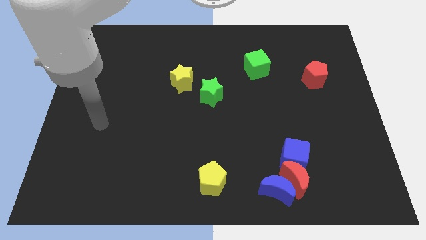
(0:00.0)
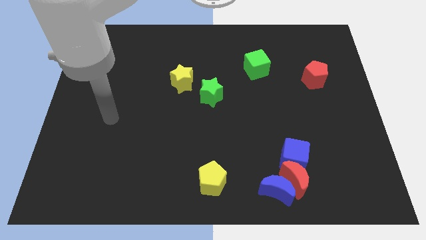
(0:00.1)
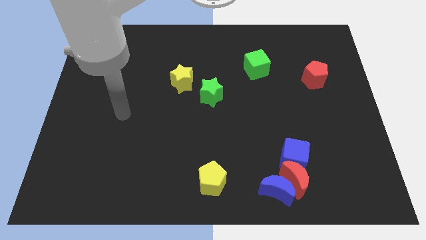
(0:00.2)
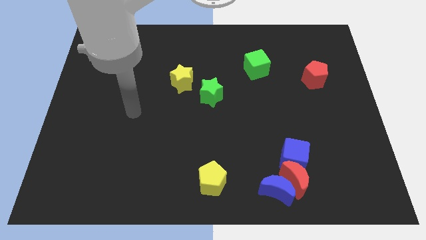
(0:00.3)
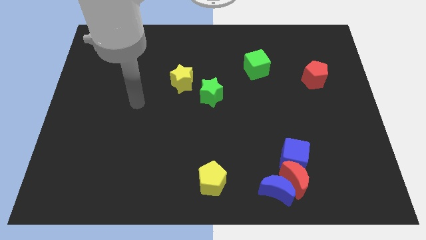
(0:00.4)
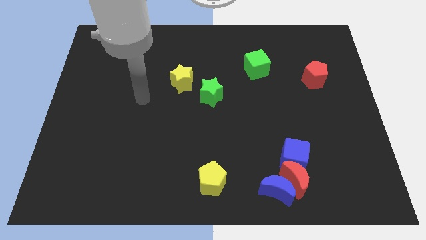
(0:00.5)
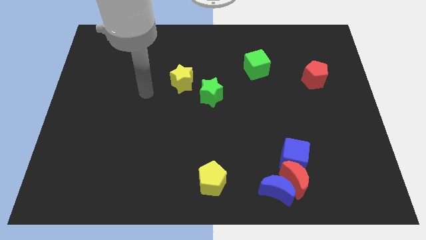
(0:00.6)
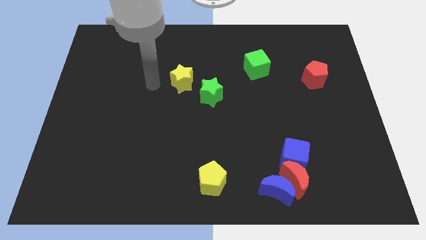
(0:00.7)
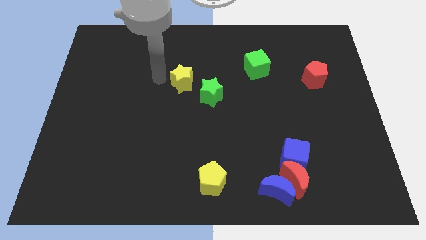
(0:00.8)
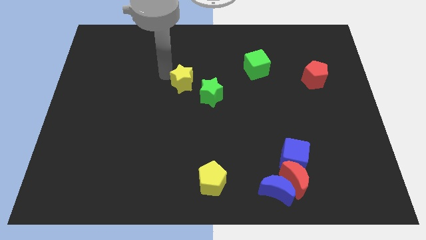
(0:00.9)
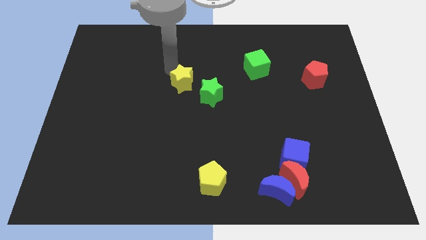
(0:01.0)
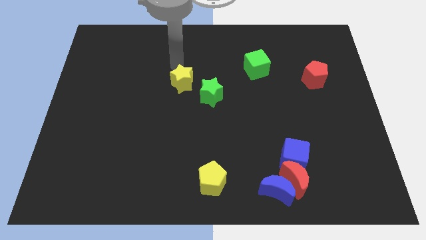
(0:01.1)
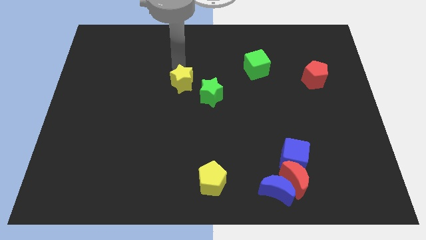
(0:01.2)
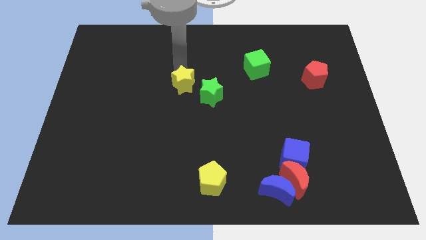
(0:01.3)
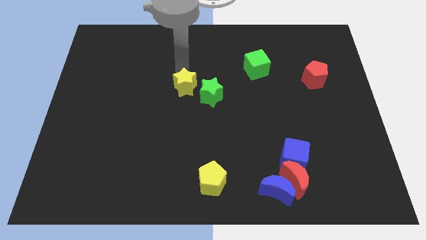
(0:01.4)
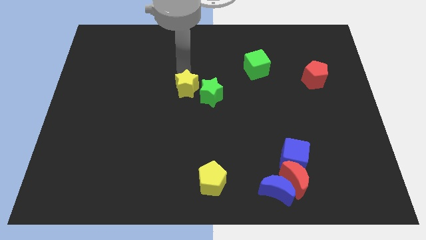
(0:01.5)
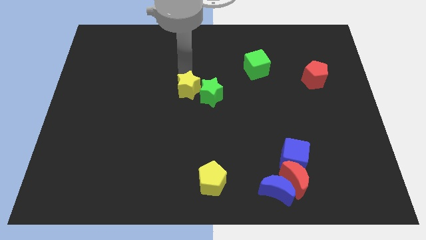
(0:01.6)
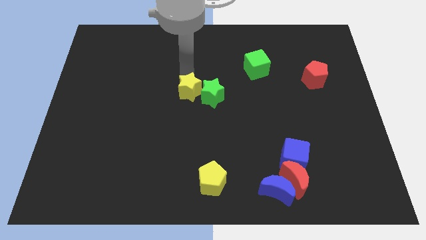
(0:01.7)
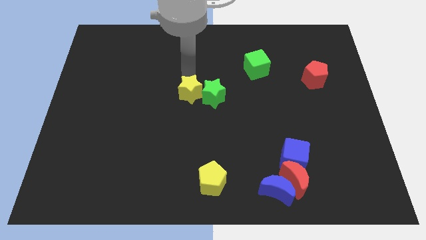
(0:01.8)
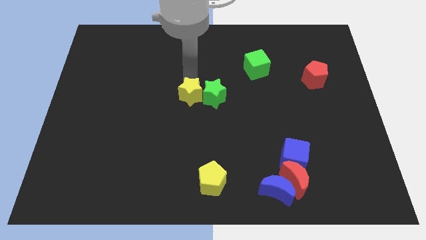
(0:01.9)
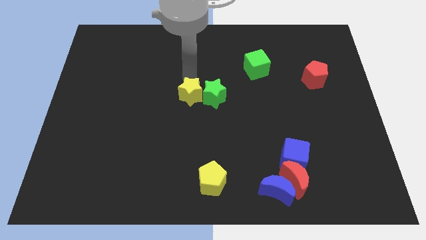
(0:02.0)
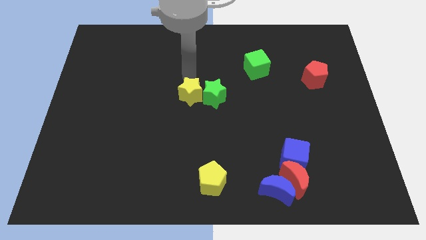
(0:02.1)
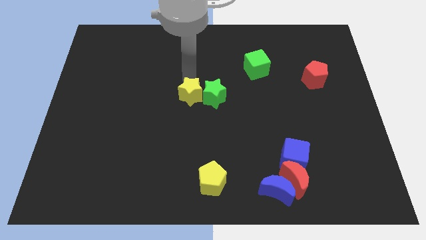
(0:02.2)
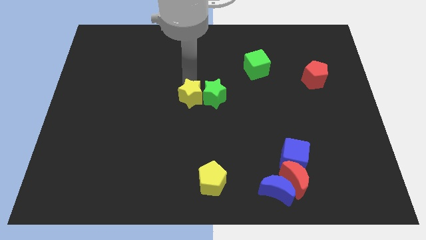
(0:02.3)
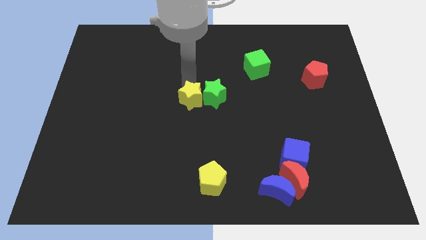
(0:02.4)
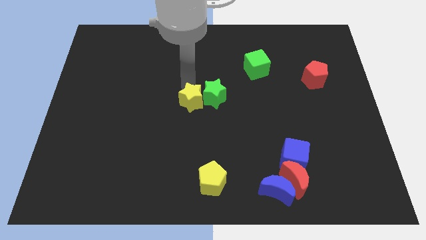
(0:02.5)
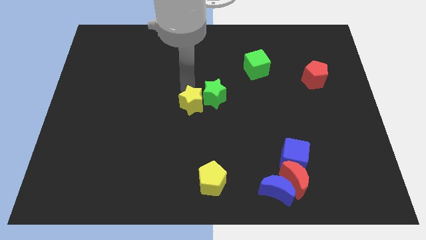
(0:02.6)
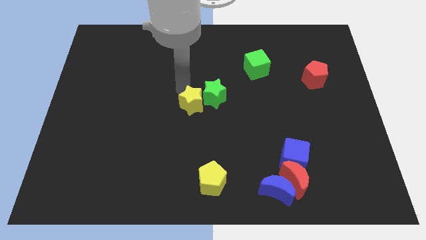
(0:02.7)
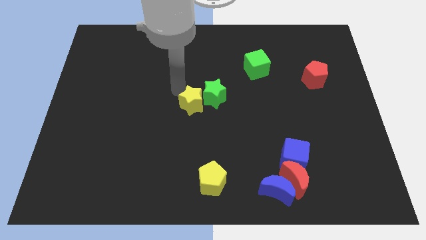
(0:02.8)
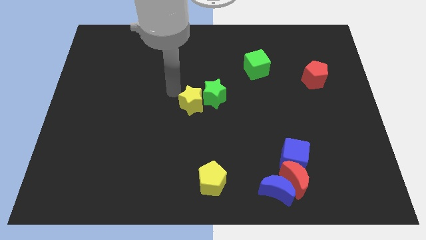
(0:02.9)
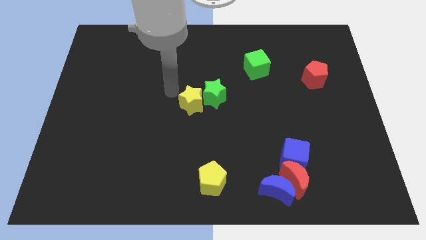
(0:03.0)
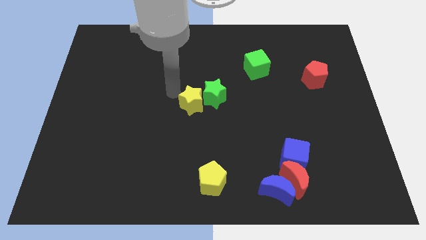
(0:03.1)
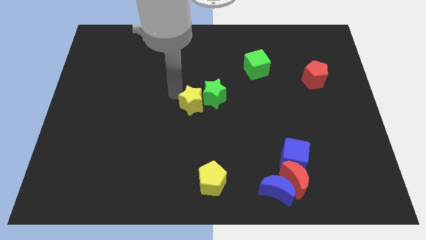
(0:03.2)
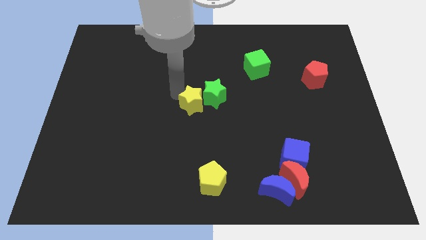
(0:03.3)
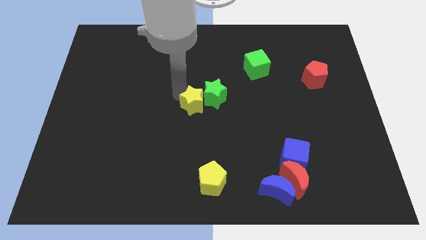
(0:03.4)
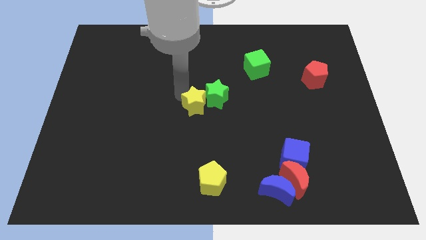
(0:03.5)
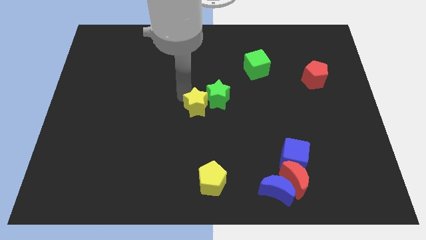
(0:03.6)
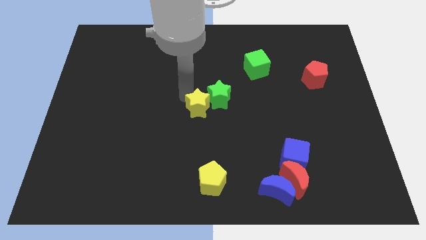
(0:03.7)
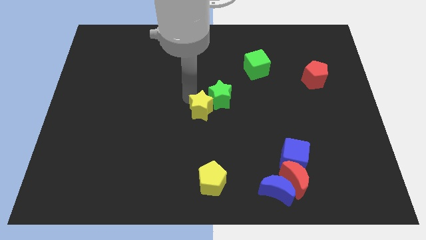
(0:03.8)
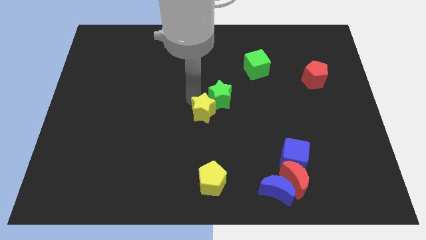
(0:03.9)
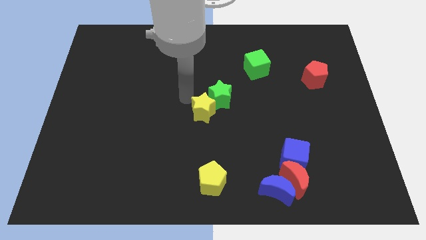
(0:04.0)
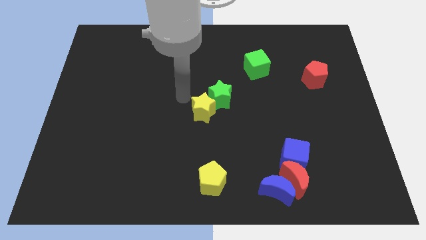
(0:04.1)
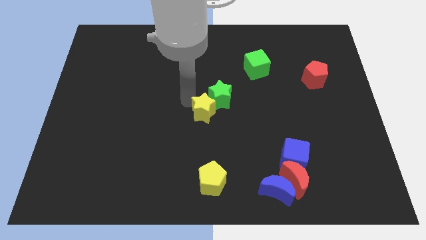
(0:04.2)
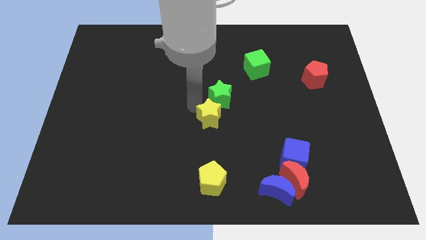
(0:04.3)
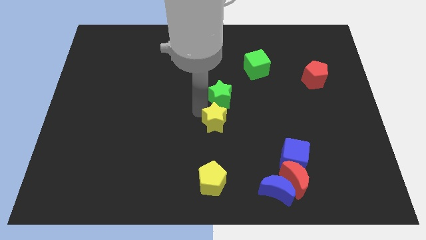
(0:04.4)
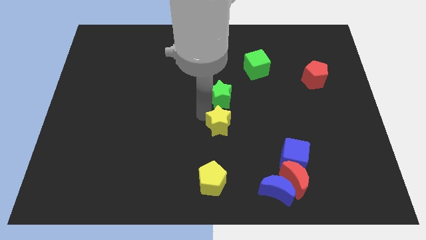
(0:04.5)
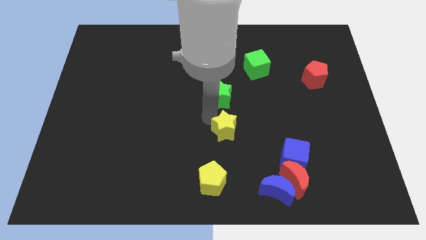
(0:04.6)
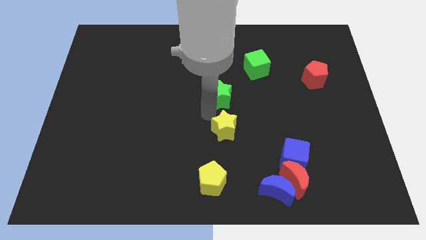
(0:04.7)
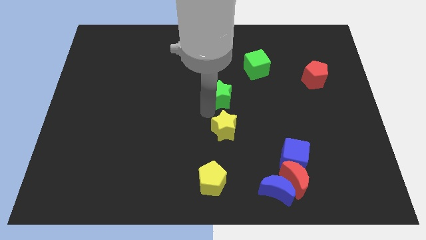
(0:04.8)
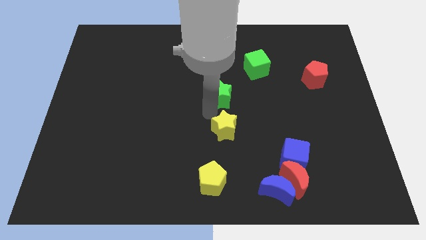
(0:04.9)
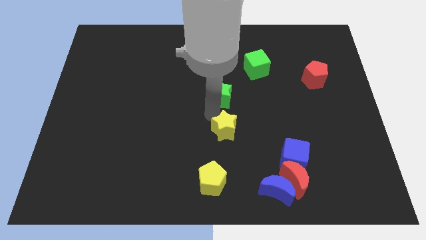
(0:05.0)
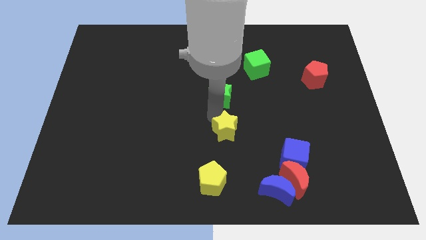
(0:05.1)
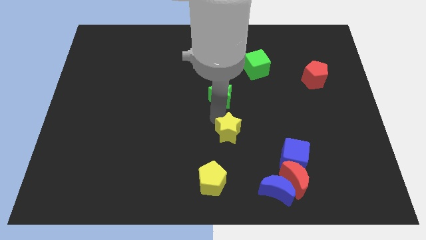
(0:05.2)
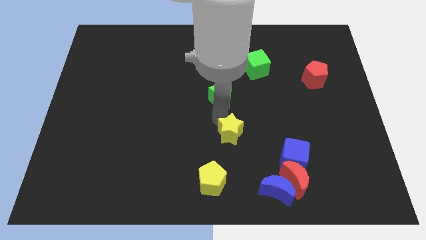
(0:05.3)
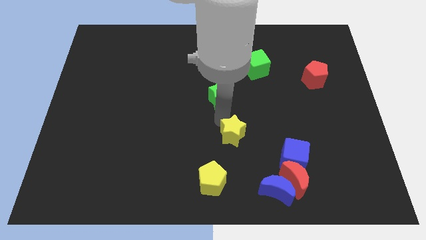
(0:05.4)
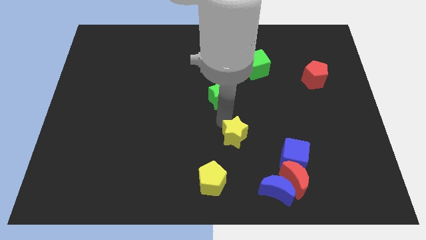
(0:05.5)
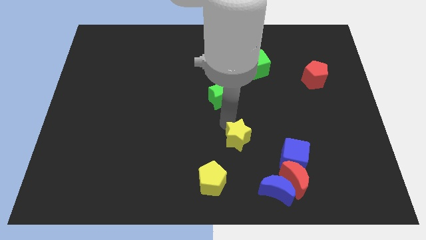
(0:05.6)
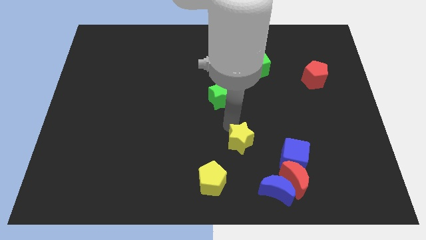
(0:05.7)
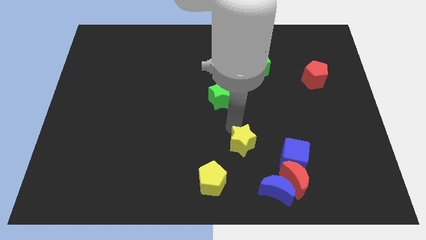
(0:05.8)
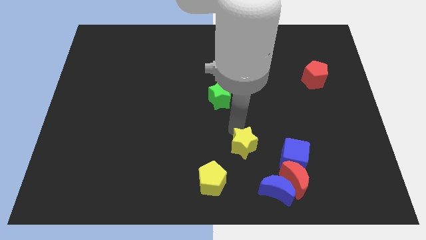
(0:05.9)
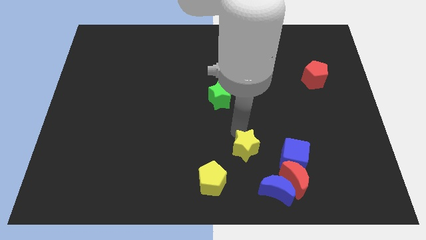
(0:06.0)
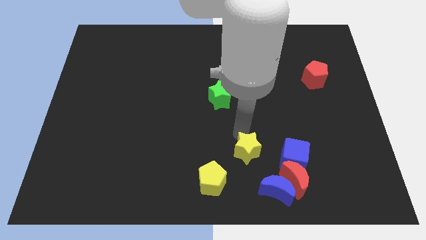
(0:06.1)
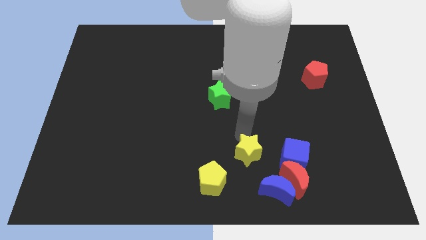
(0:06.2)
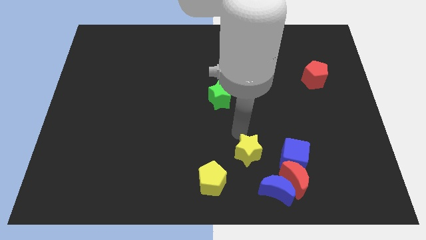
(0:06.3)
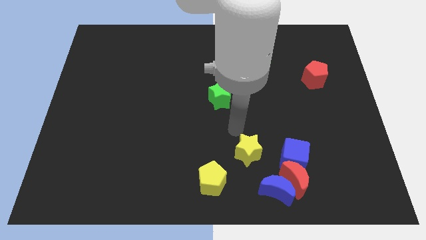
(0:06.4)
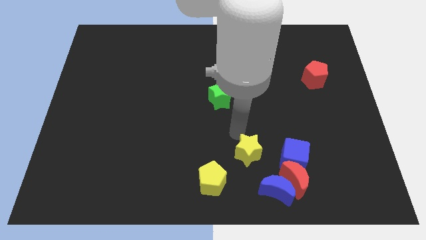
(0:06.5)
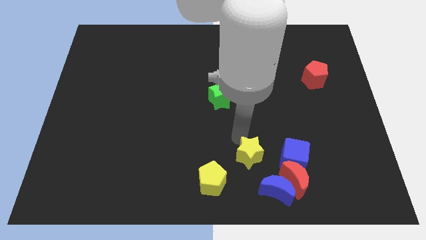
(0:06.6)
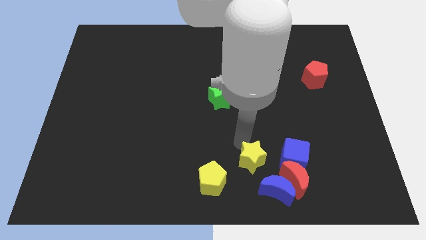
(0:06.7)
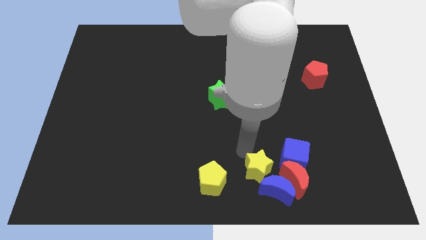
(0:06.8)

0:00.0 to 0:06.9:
move the yellow star to the blue moon

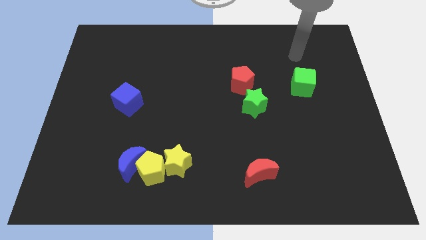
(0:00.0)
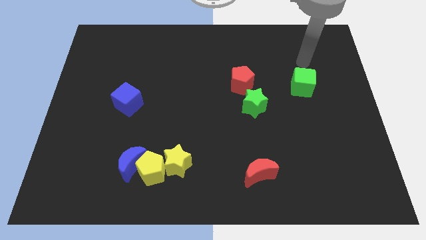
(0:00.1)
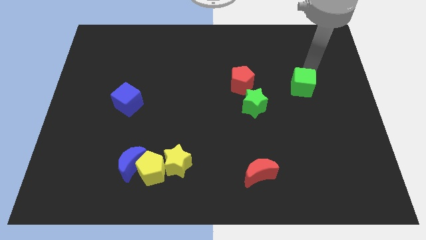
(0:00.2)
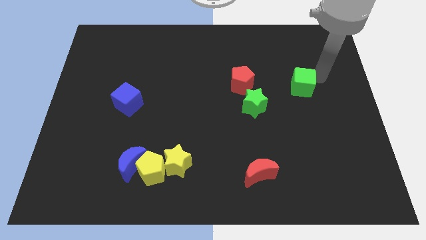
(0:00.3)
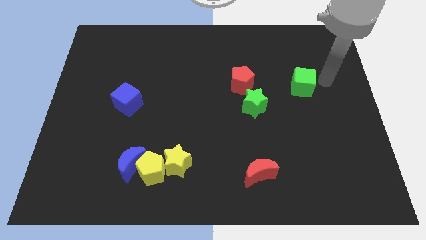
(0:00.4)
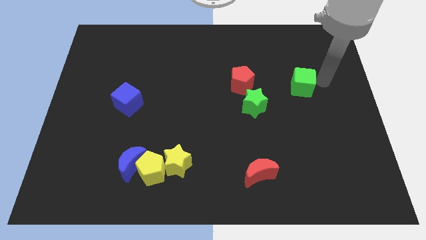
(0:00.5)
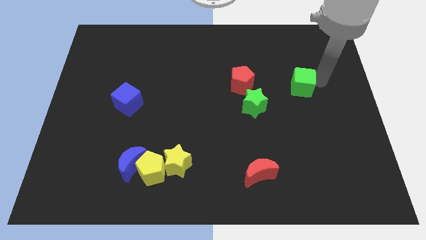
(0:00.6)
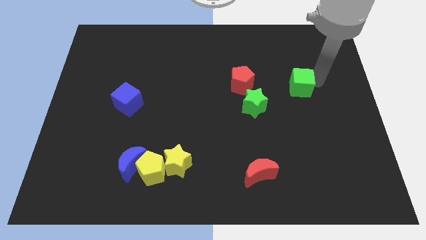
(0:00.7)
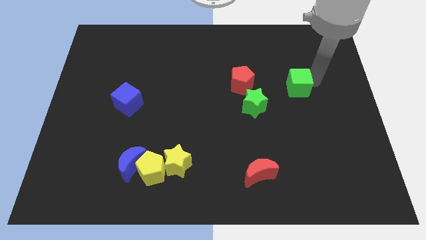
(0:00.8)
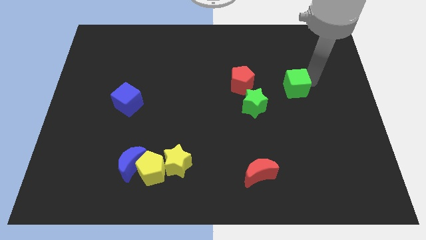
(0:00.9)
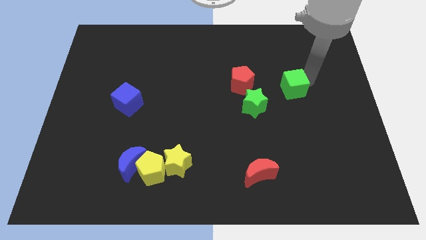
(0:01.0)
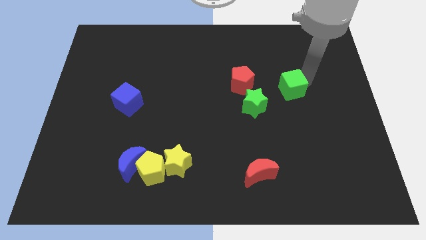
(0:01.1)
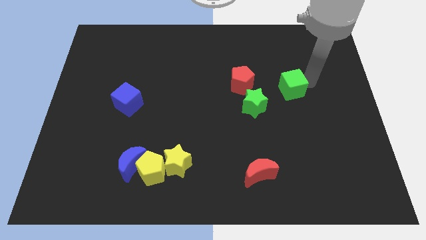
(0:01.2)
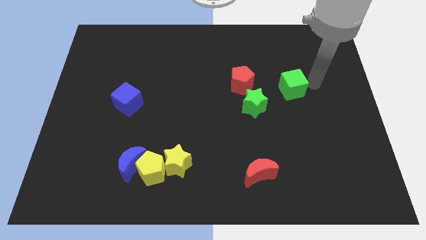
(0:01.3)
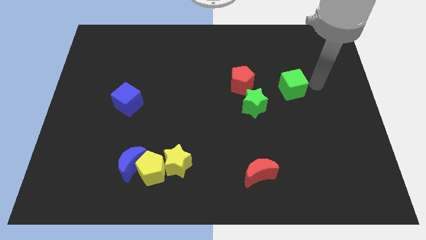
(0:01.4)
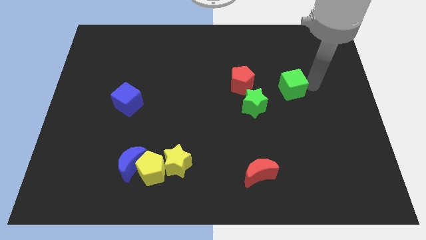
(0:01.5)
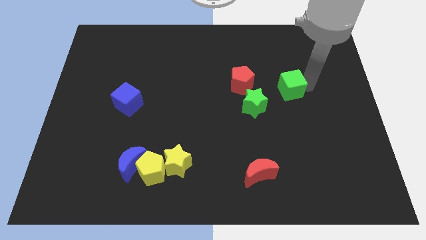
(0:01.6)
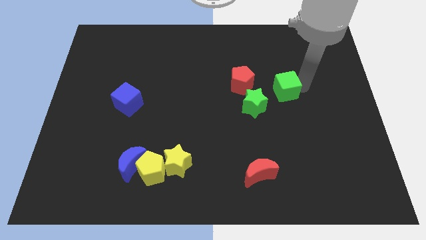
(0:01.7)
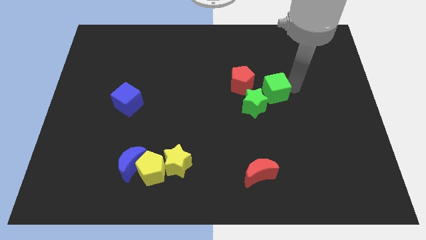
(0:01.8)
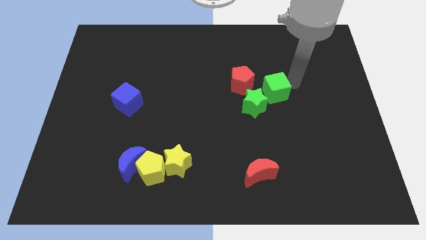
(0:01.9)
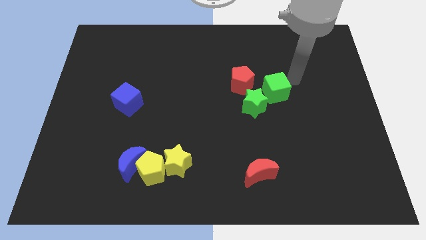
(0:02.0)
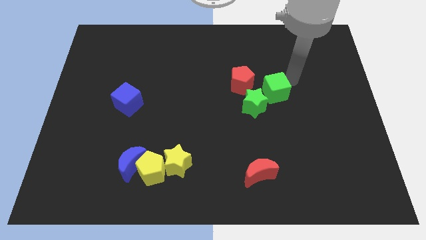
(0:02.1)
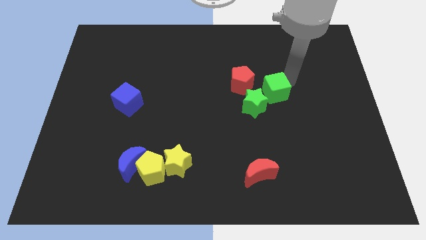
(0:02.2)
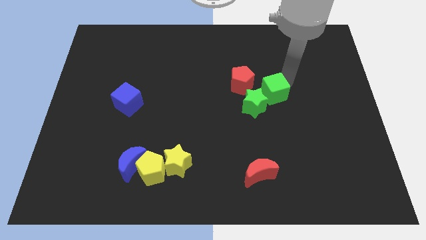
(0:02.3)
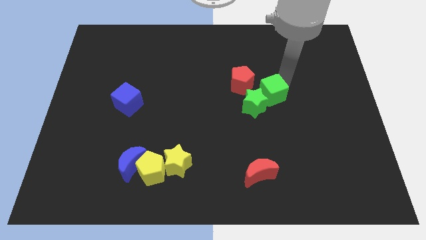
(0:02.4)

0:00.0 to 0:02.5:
slide the green cube towards the green star
